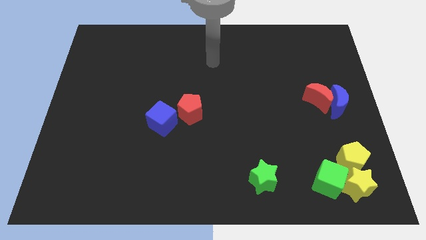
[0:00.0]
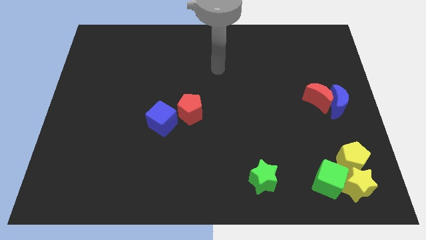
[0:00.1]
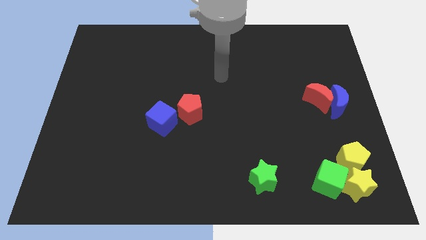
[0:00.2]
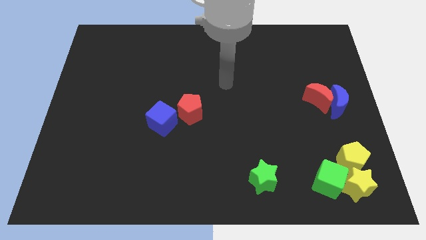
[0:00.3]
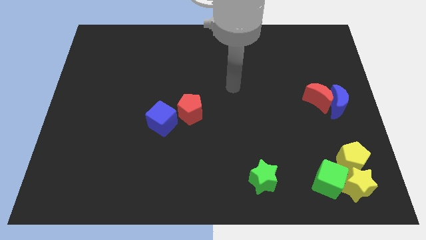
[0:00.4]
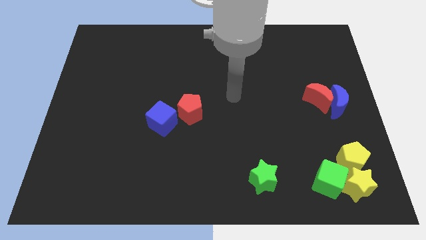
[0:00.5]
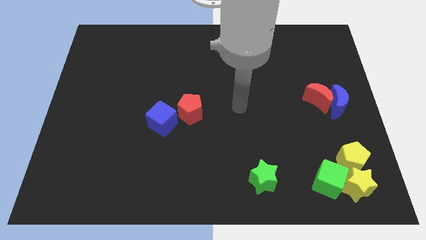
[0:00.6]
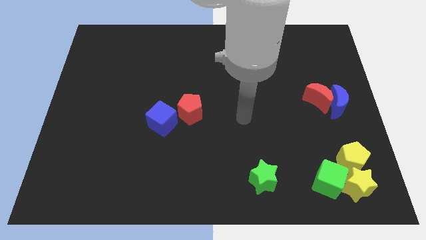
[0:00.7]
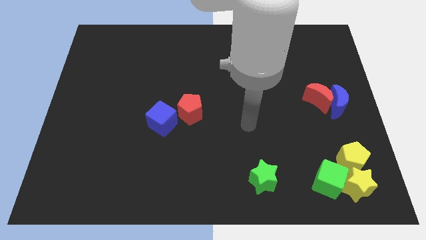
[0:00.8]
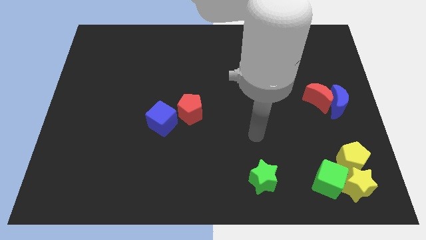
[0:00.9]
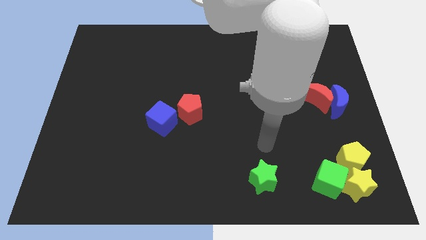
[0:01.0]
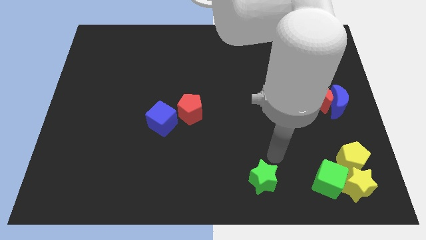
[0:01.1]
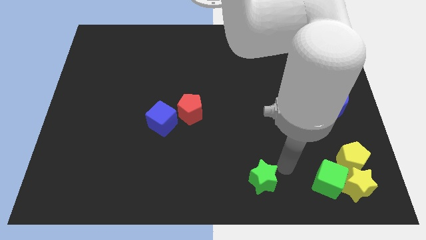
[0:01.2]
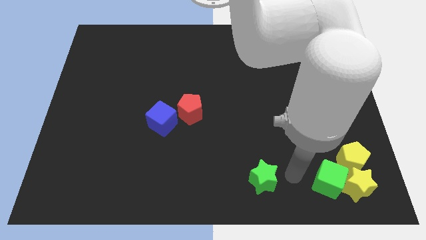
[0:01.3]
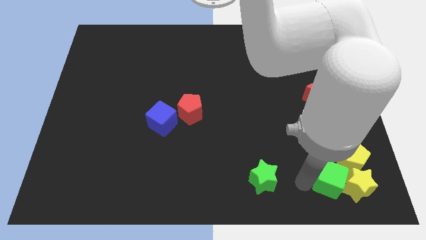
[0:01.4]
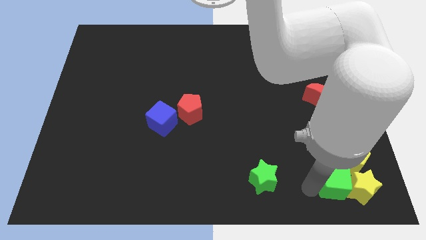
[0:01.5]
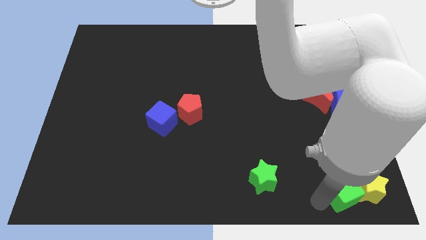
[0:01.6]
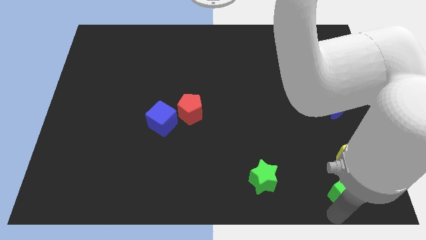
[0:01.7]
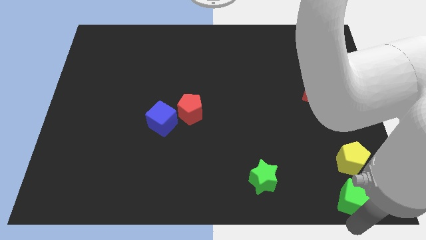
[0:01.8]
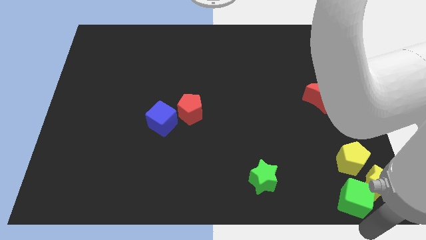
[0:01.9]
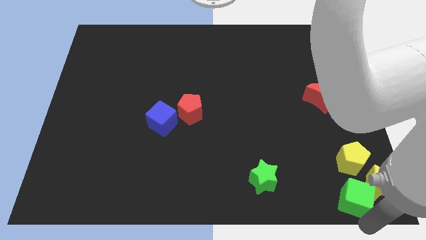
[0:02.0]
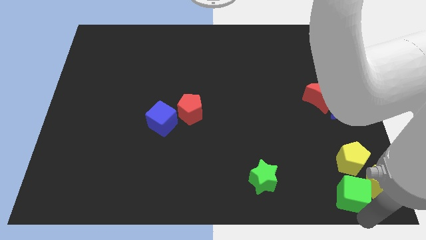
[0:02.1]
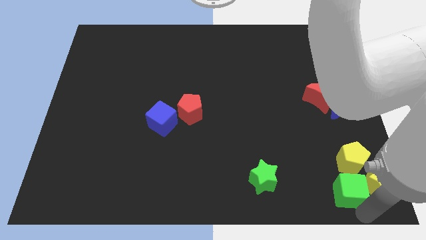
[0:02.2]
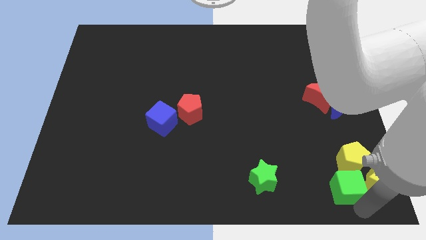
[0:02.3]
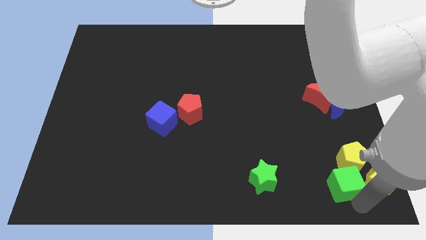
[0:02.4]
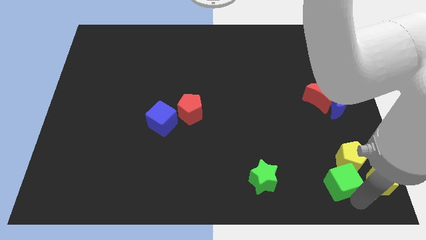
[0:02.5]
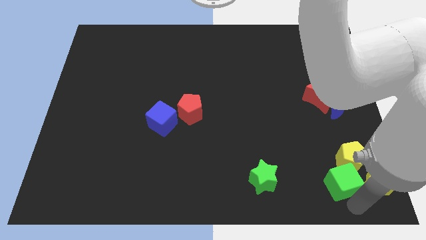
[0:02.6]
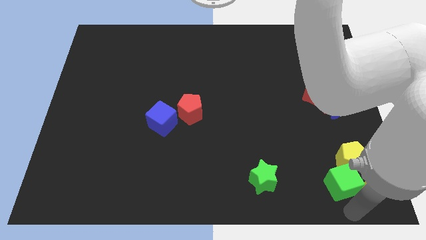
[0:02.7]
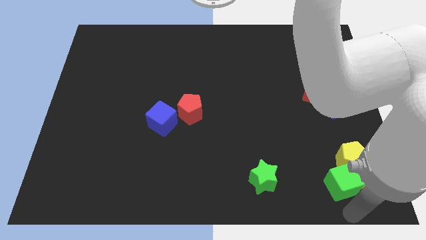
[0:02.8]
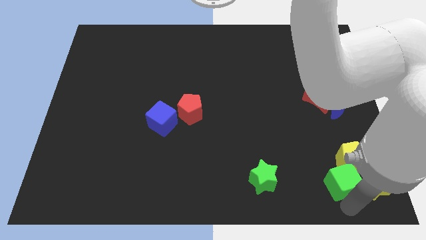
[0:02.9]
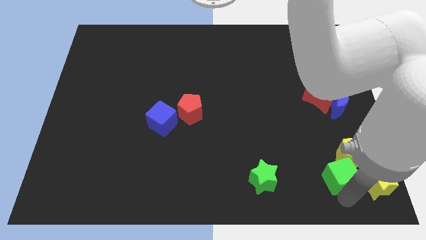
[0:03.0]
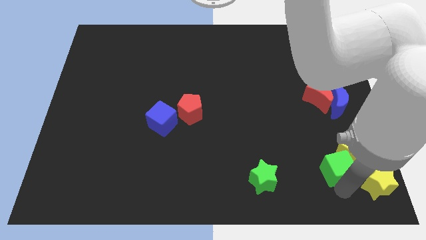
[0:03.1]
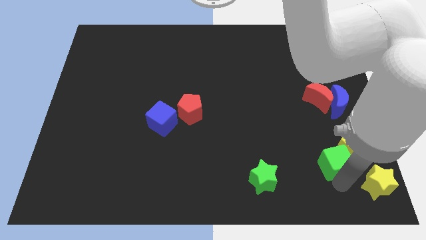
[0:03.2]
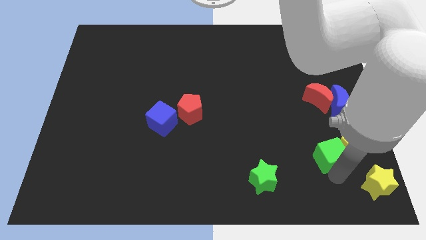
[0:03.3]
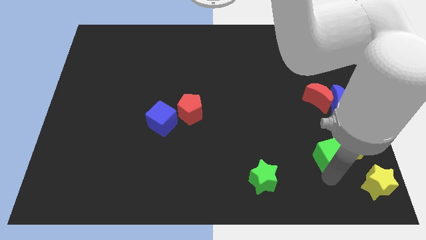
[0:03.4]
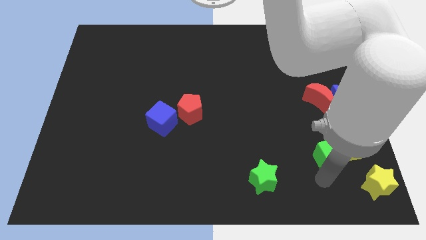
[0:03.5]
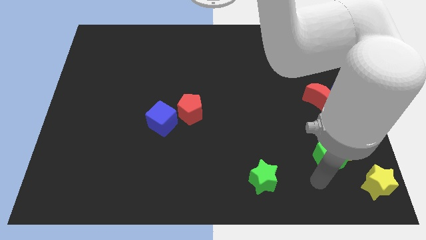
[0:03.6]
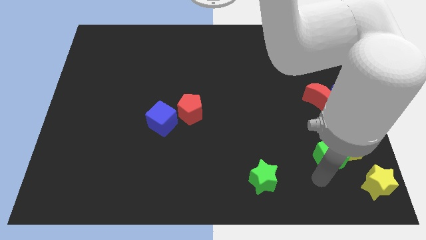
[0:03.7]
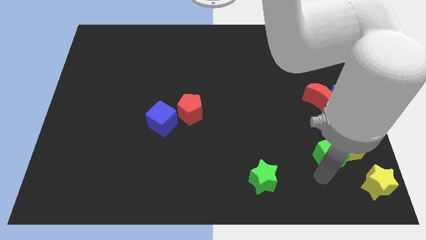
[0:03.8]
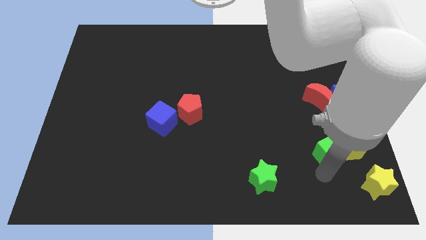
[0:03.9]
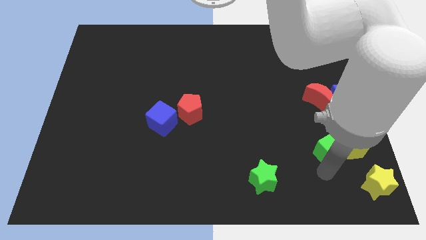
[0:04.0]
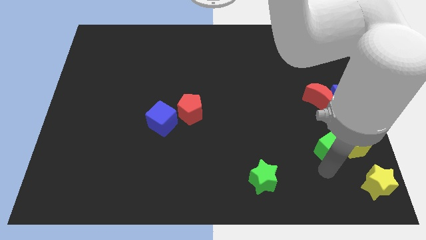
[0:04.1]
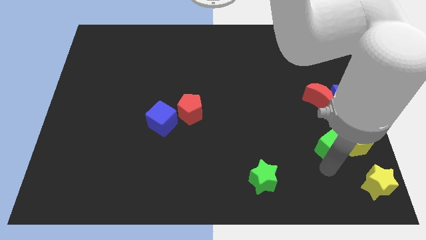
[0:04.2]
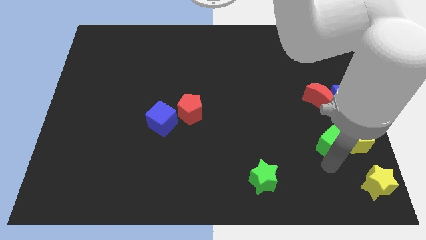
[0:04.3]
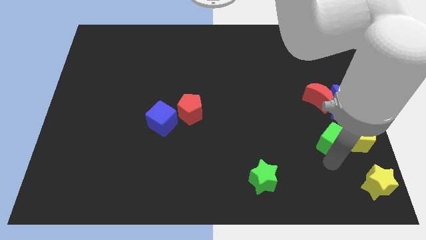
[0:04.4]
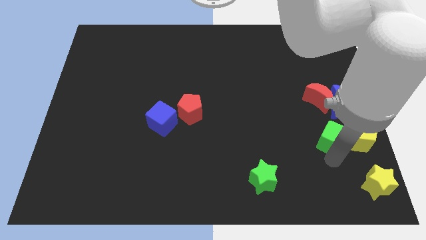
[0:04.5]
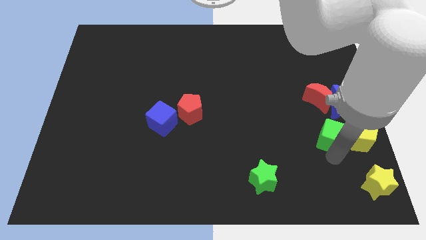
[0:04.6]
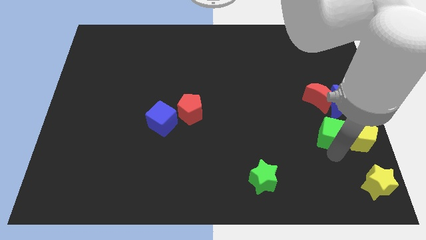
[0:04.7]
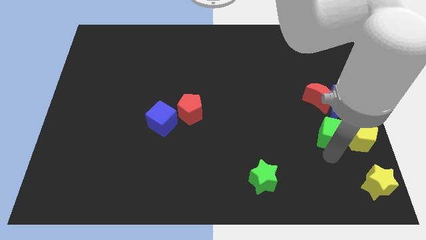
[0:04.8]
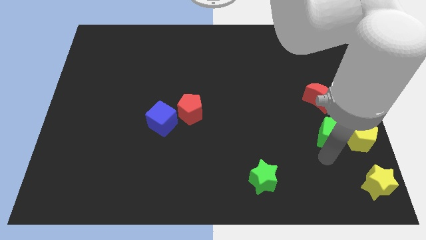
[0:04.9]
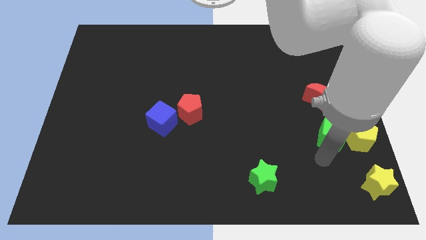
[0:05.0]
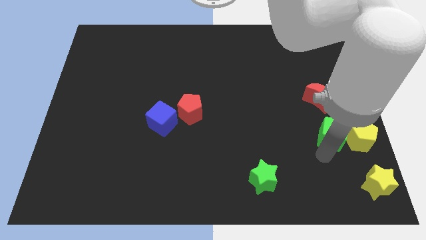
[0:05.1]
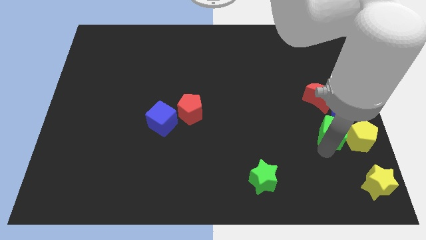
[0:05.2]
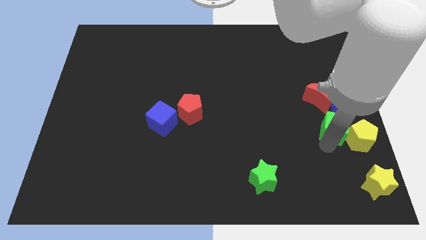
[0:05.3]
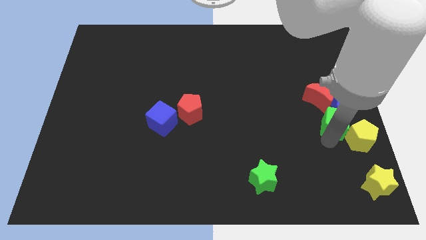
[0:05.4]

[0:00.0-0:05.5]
move the green cube to the blue moon

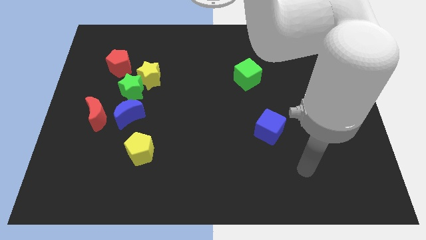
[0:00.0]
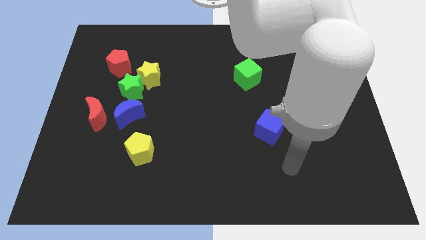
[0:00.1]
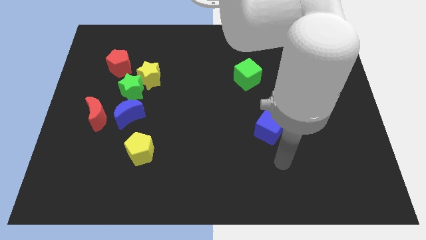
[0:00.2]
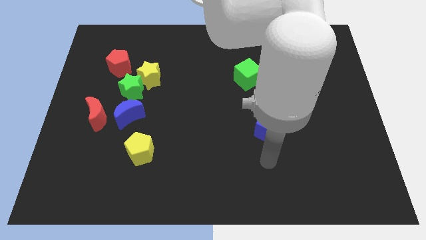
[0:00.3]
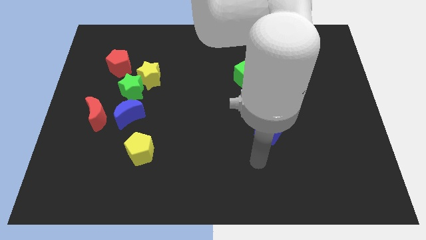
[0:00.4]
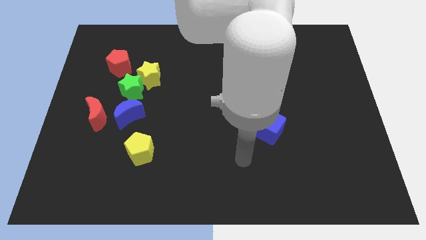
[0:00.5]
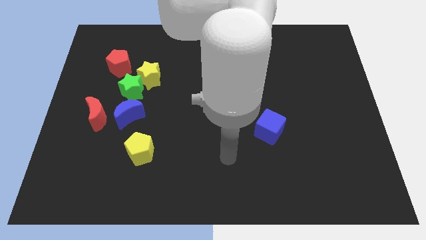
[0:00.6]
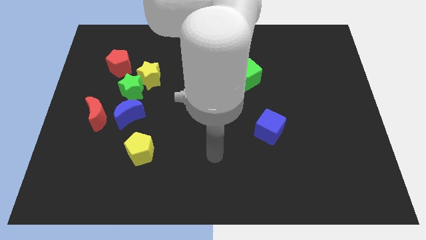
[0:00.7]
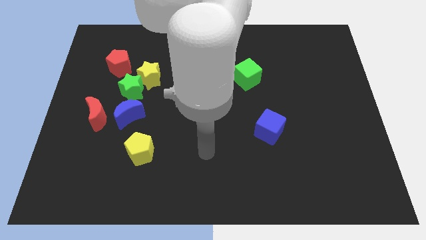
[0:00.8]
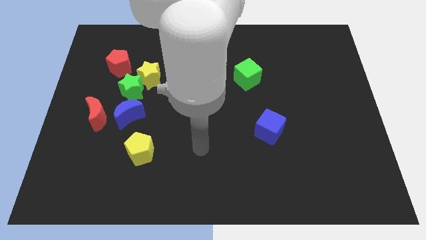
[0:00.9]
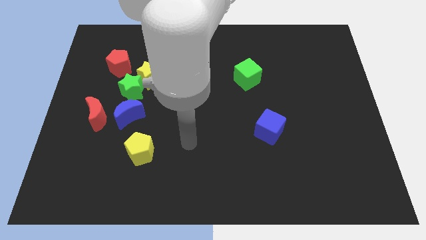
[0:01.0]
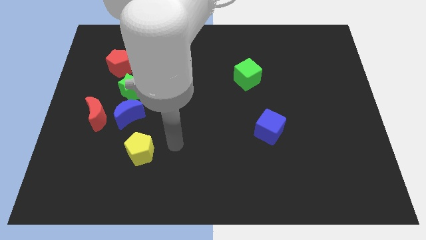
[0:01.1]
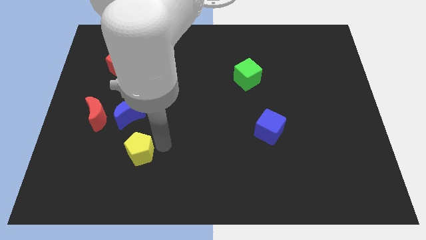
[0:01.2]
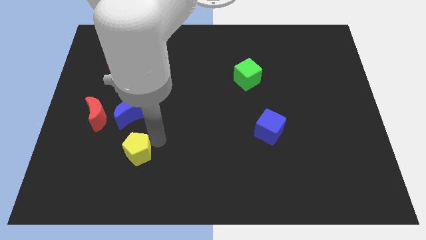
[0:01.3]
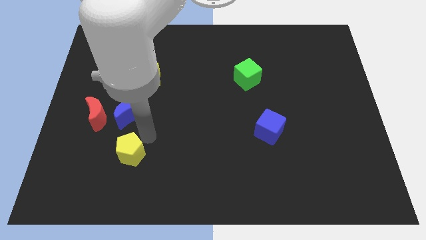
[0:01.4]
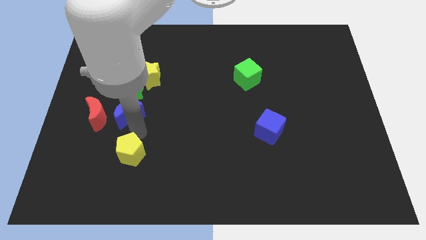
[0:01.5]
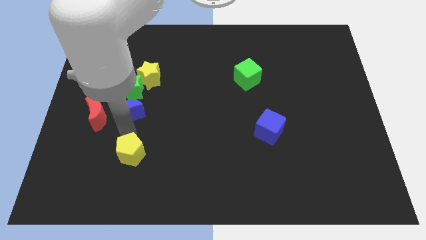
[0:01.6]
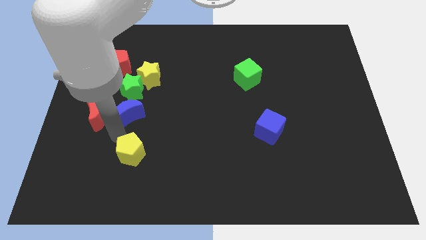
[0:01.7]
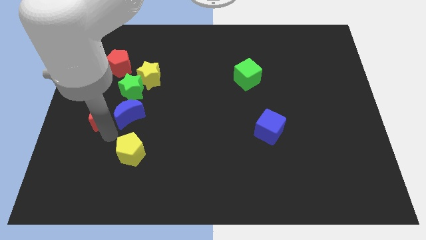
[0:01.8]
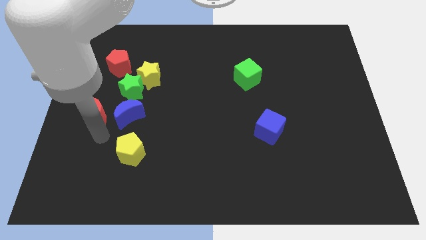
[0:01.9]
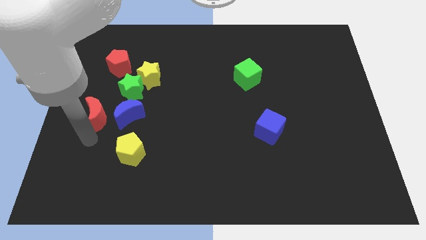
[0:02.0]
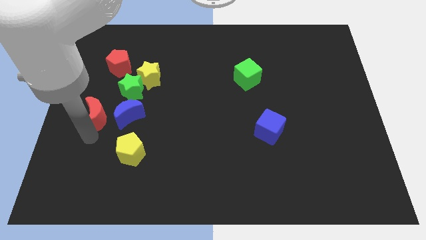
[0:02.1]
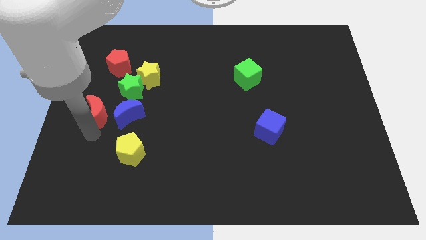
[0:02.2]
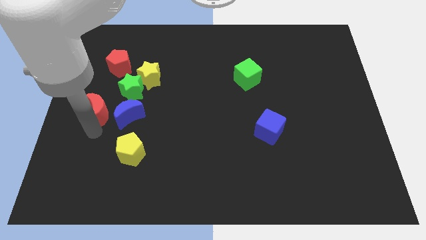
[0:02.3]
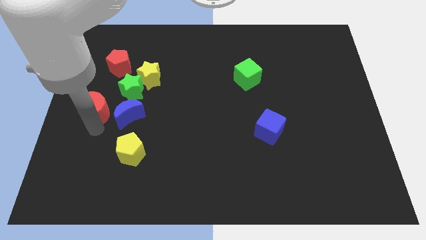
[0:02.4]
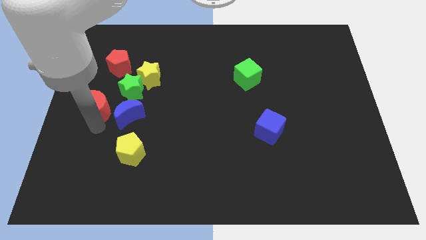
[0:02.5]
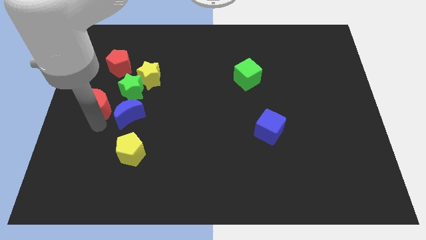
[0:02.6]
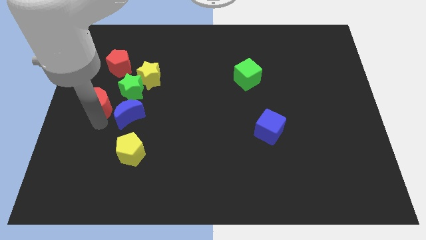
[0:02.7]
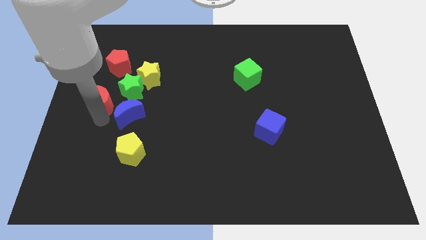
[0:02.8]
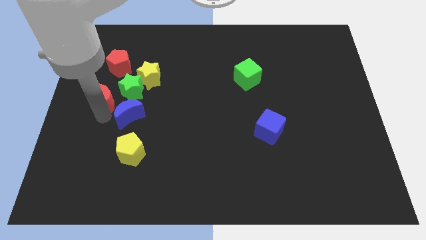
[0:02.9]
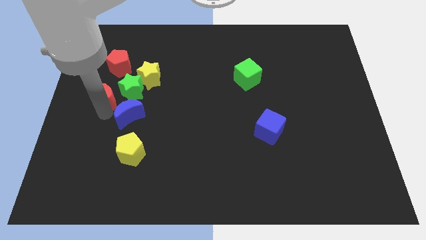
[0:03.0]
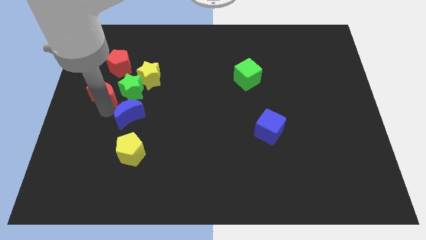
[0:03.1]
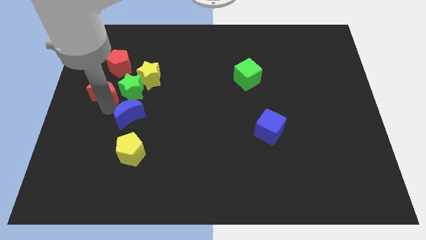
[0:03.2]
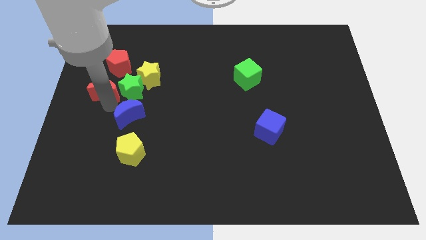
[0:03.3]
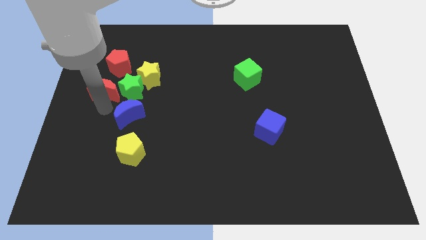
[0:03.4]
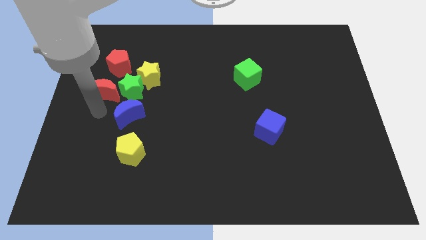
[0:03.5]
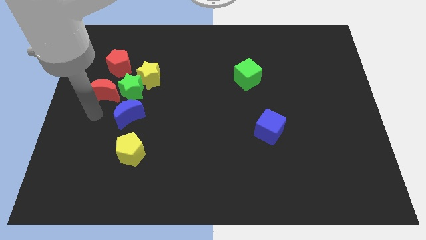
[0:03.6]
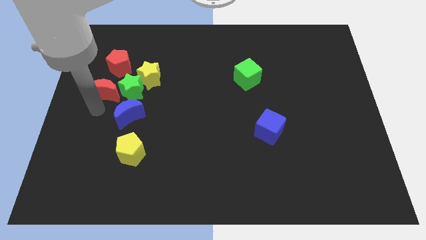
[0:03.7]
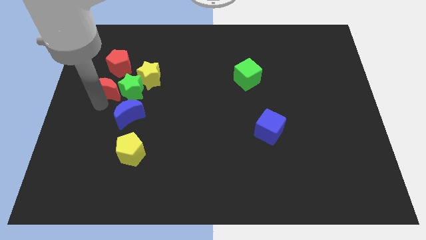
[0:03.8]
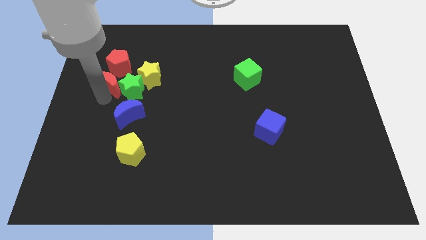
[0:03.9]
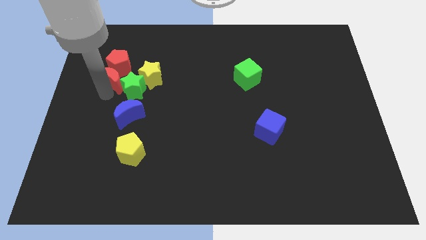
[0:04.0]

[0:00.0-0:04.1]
move the red moon towards the red pentagon
